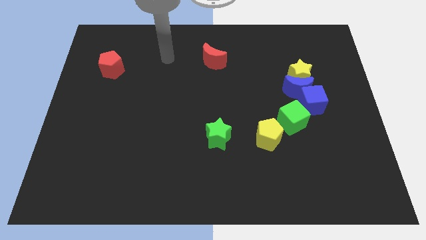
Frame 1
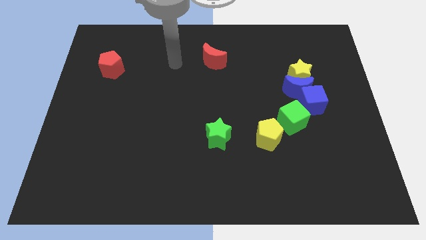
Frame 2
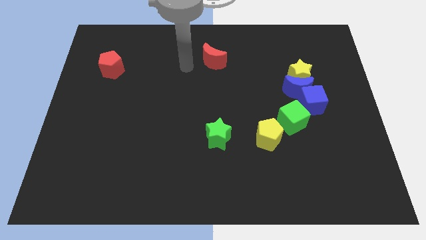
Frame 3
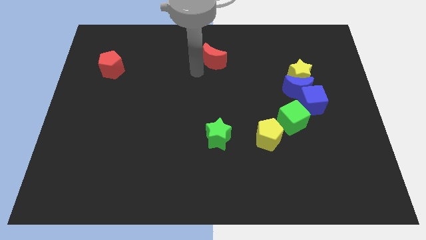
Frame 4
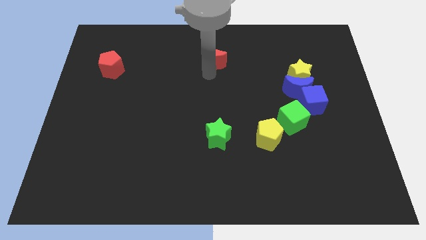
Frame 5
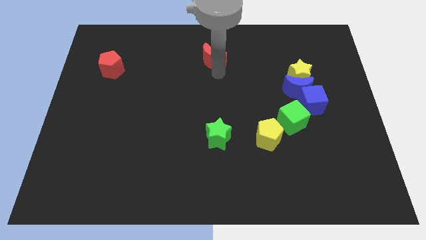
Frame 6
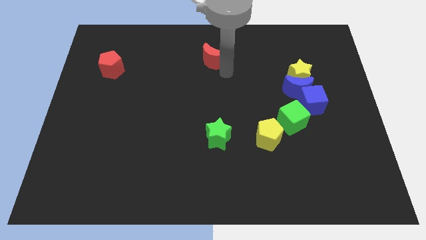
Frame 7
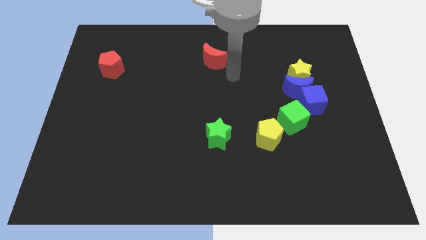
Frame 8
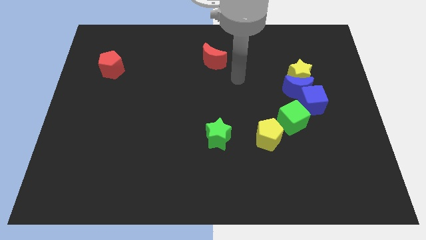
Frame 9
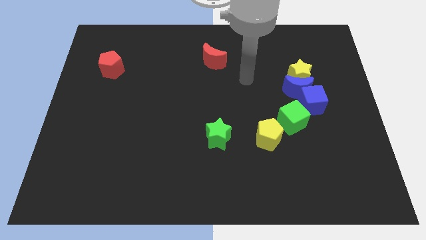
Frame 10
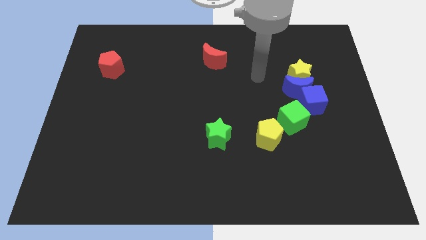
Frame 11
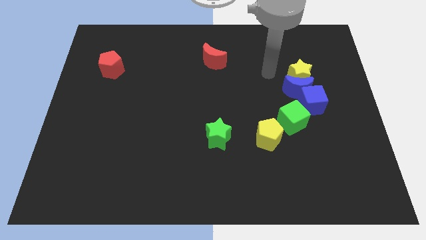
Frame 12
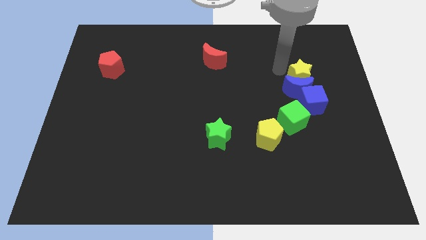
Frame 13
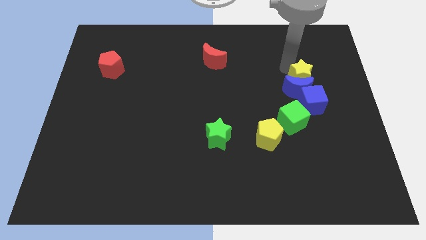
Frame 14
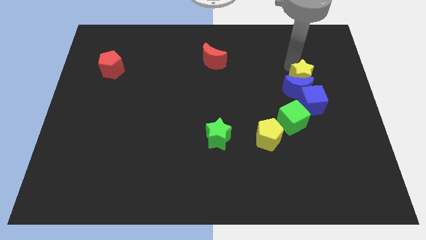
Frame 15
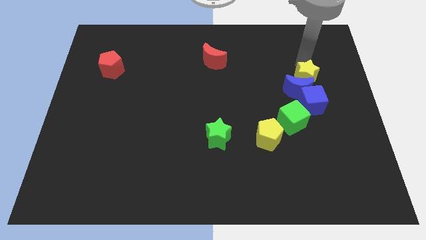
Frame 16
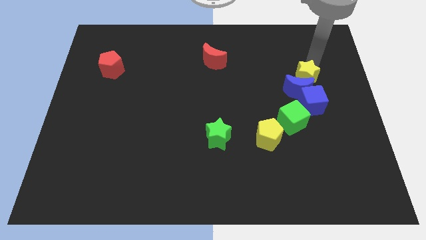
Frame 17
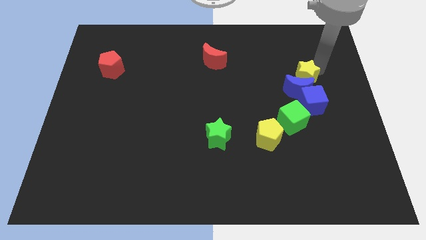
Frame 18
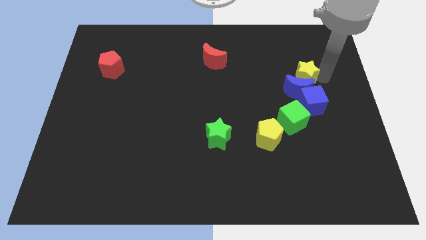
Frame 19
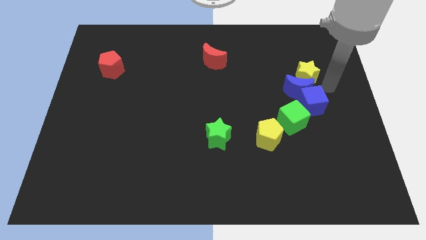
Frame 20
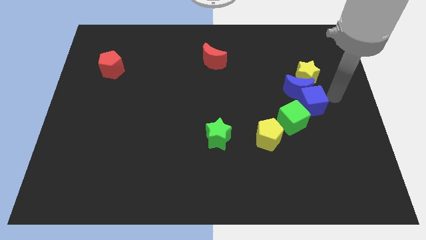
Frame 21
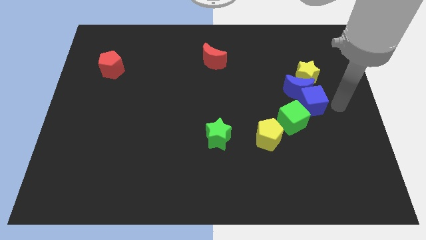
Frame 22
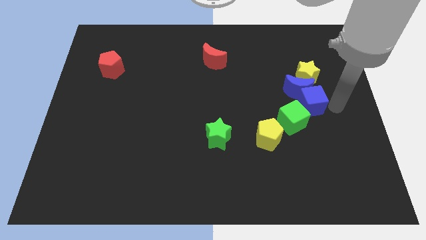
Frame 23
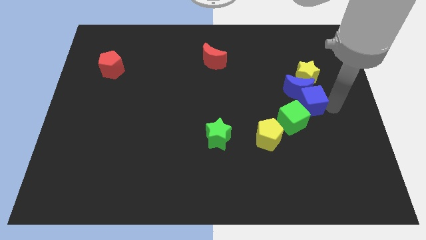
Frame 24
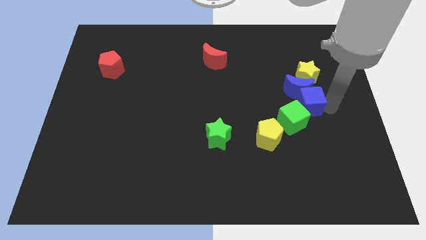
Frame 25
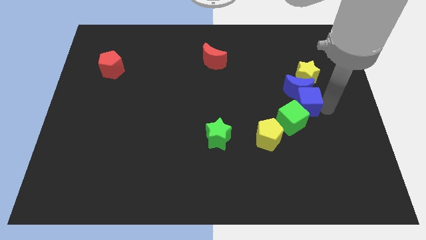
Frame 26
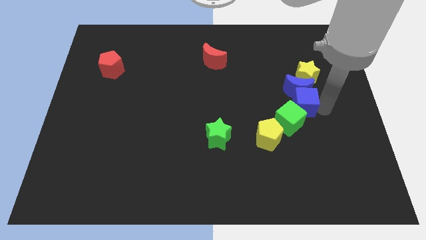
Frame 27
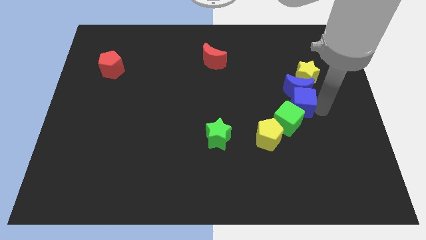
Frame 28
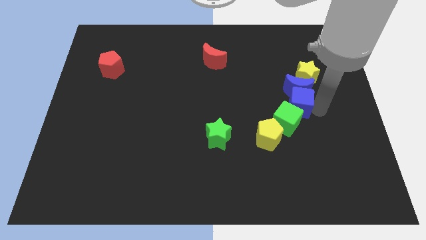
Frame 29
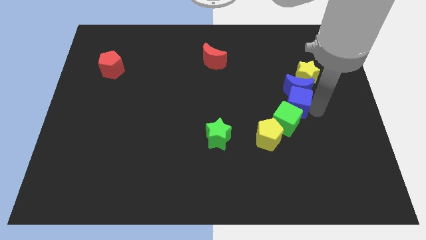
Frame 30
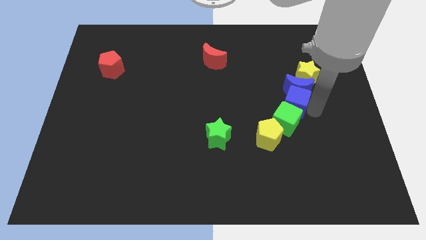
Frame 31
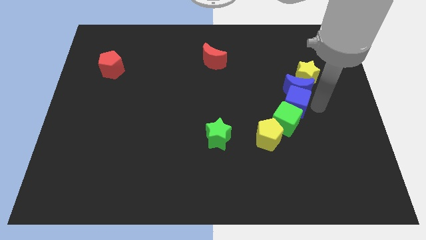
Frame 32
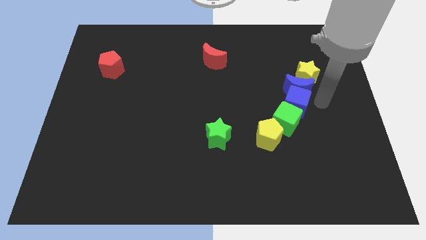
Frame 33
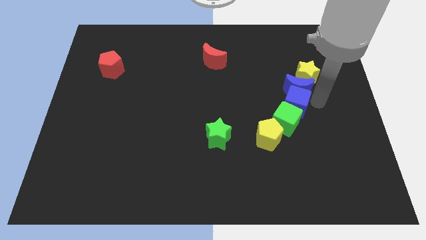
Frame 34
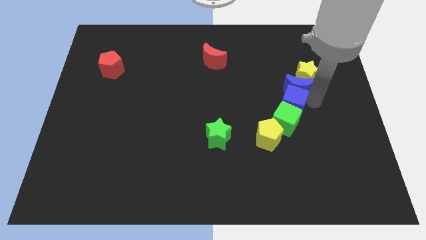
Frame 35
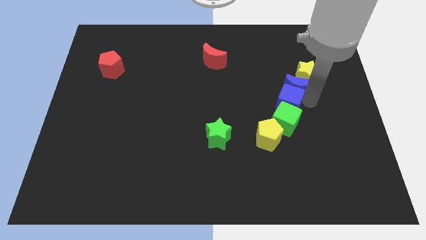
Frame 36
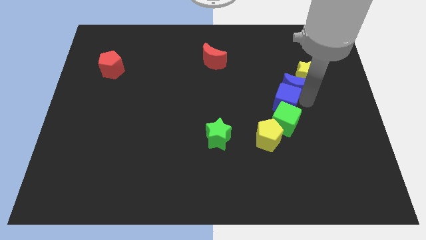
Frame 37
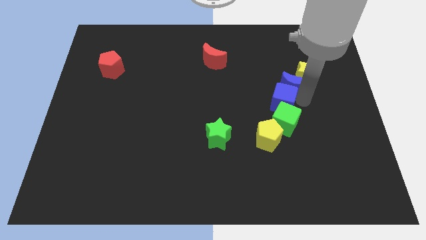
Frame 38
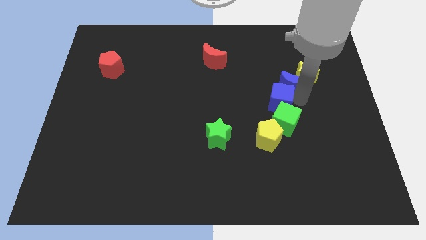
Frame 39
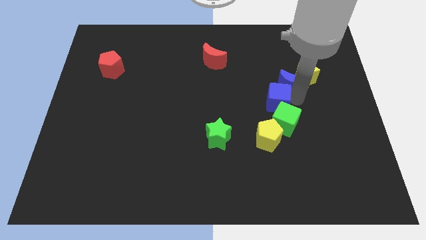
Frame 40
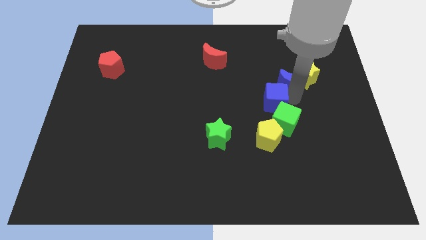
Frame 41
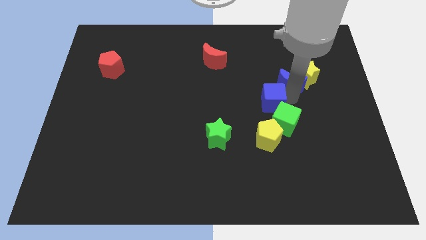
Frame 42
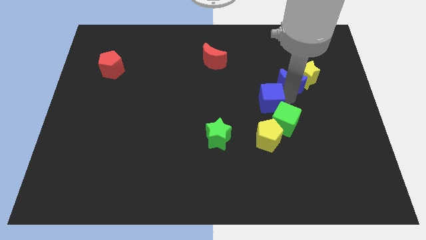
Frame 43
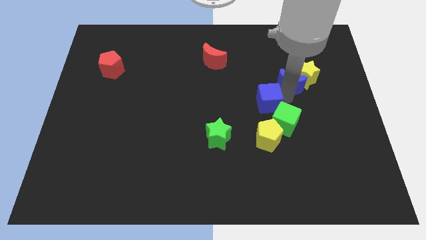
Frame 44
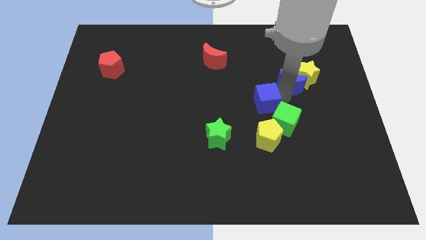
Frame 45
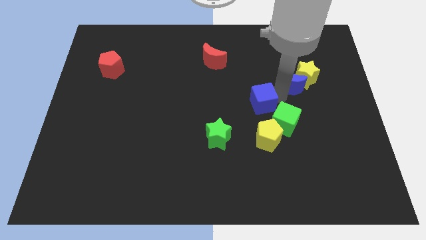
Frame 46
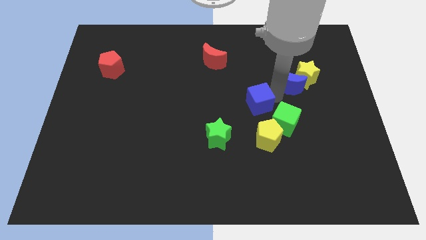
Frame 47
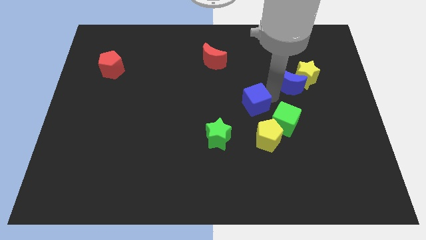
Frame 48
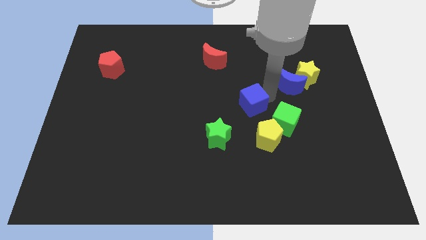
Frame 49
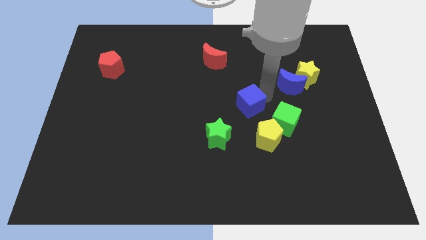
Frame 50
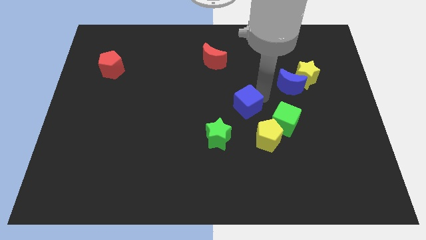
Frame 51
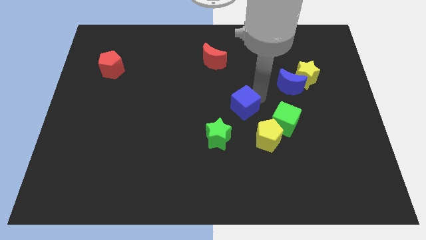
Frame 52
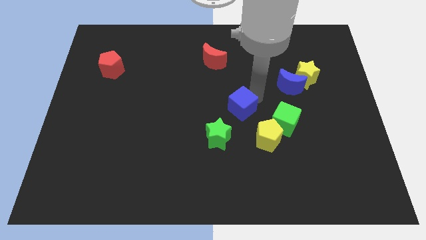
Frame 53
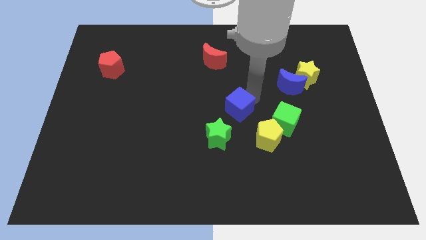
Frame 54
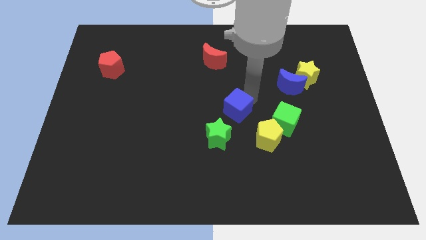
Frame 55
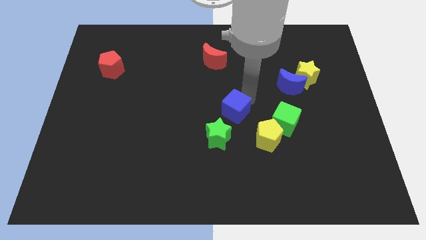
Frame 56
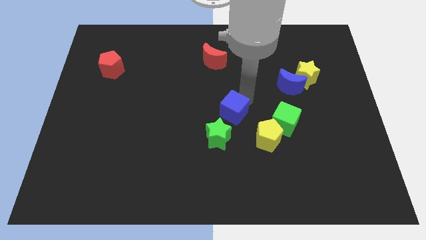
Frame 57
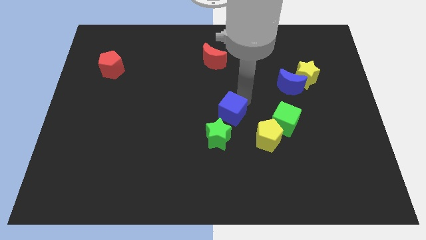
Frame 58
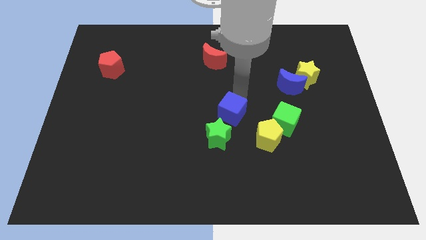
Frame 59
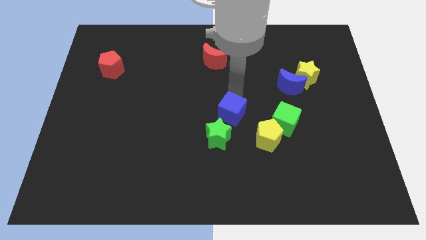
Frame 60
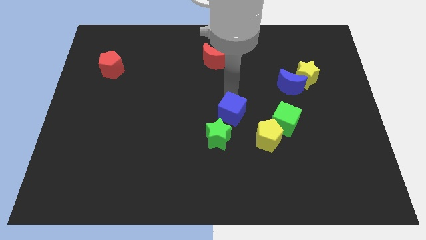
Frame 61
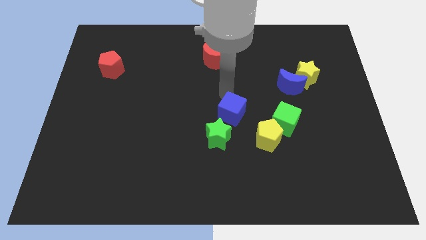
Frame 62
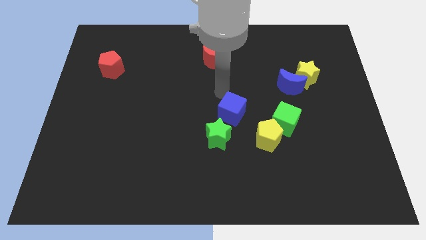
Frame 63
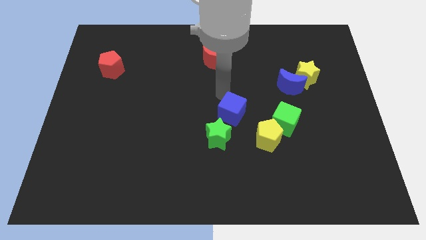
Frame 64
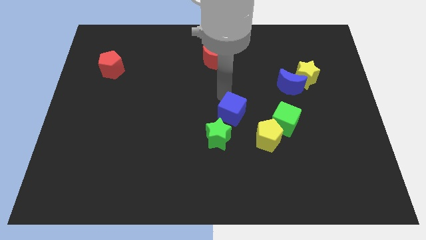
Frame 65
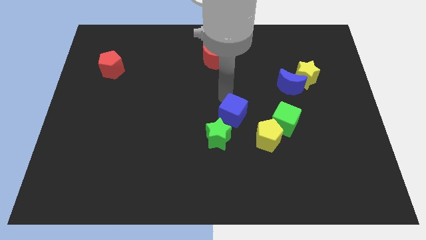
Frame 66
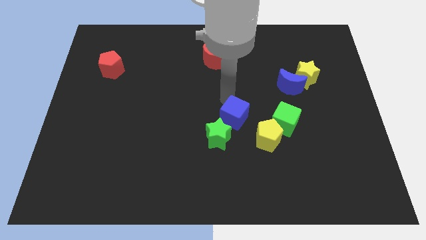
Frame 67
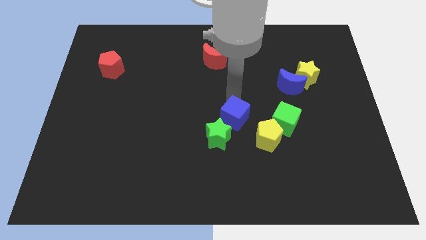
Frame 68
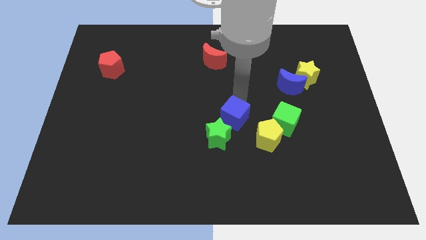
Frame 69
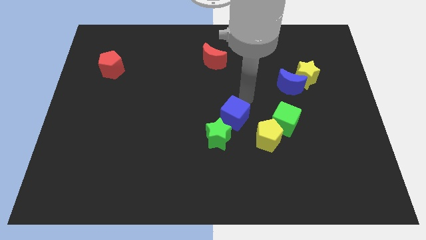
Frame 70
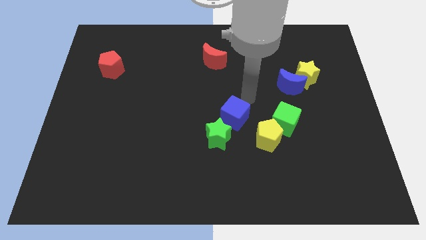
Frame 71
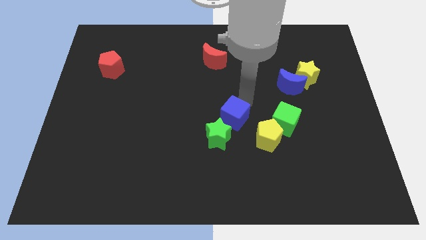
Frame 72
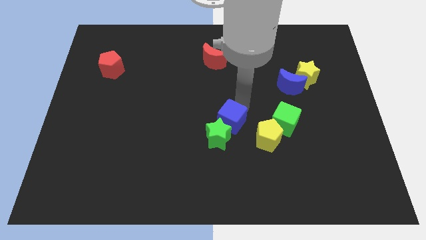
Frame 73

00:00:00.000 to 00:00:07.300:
push the blue cube next to the green star
